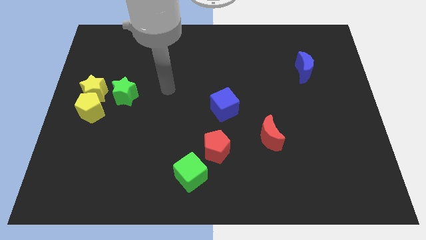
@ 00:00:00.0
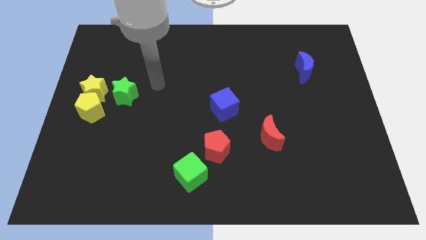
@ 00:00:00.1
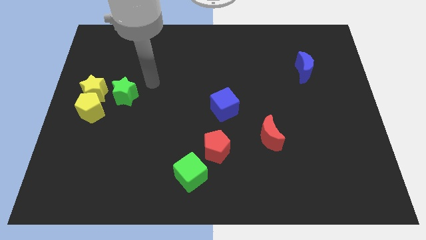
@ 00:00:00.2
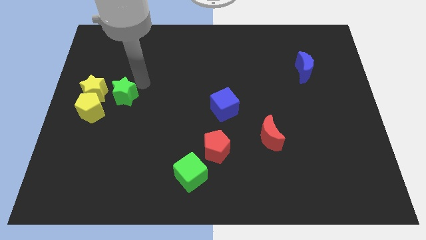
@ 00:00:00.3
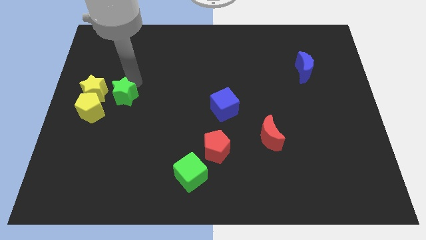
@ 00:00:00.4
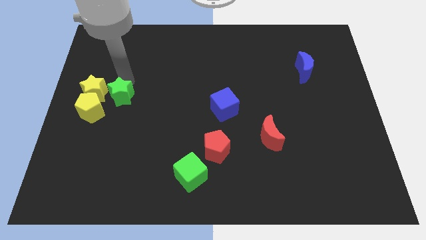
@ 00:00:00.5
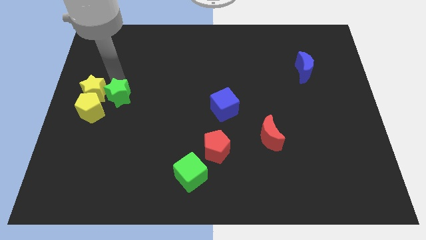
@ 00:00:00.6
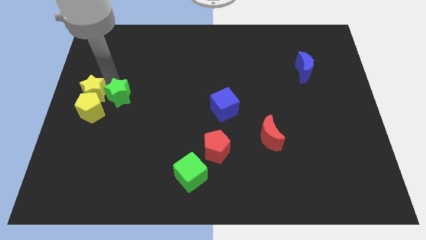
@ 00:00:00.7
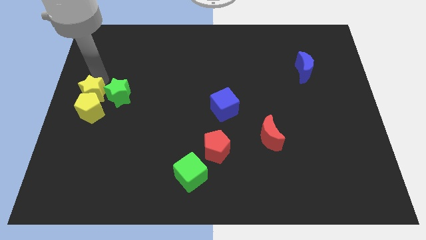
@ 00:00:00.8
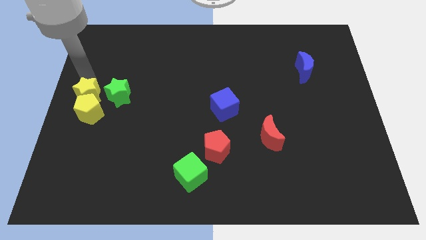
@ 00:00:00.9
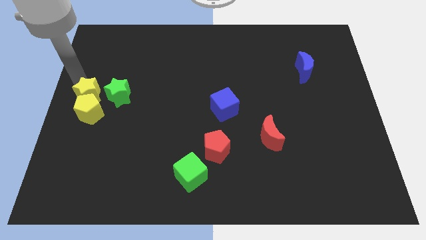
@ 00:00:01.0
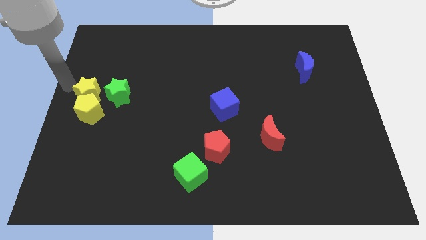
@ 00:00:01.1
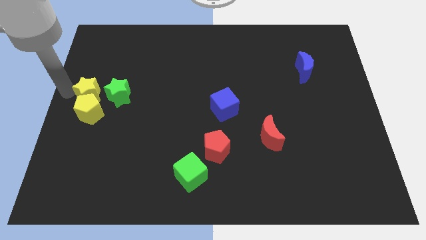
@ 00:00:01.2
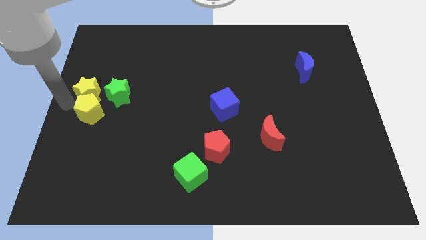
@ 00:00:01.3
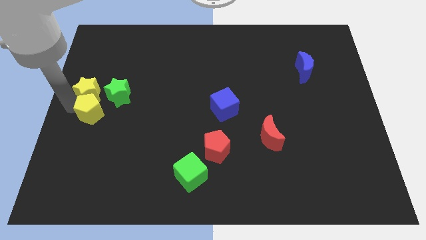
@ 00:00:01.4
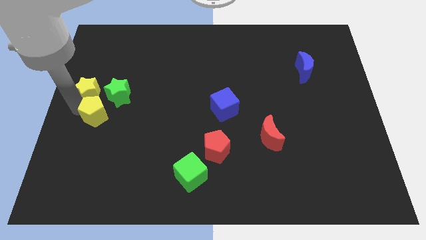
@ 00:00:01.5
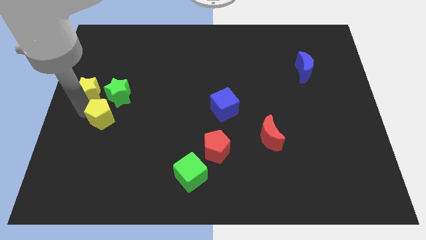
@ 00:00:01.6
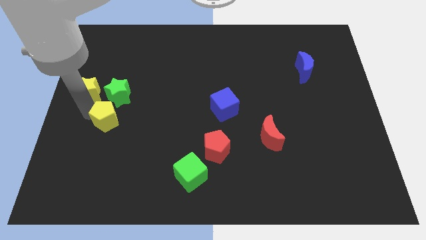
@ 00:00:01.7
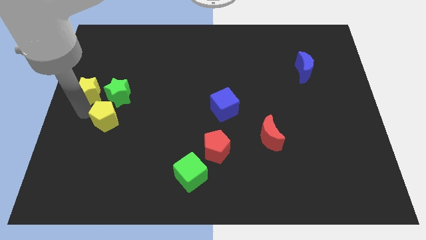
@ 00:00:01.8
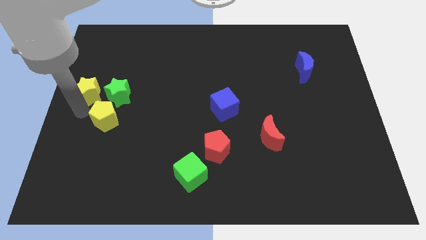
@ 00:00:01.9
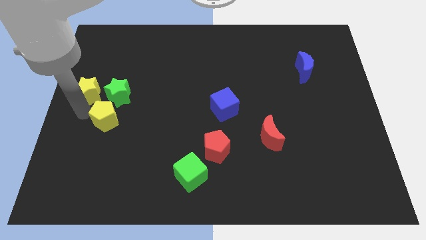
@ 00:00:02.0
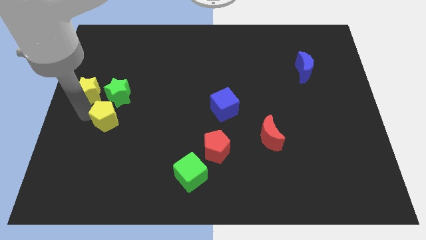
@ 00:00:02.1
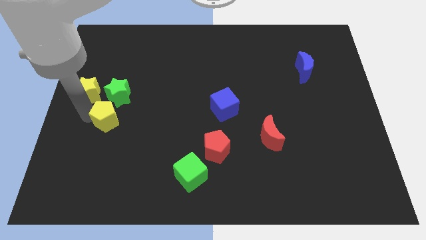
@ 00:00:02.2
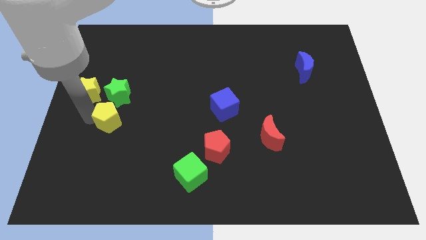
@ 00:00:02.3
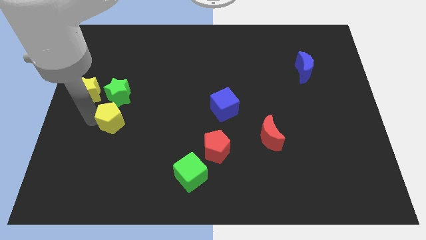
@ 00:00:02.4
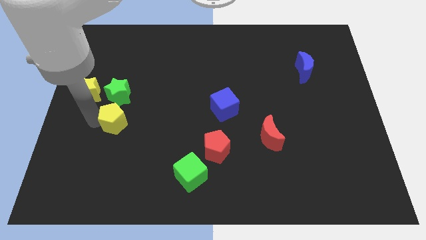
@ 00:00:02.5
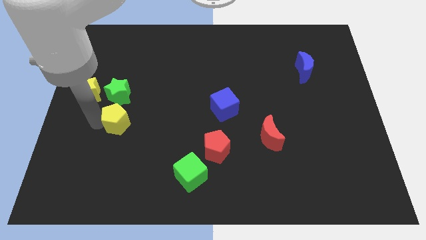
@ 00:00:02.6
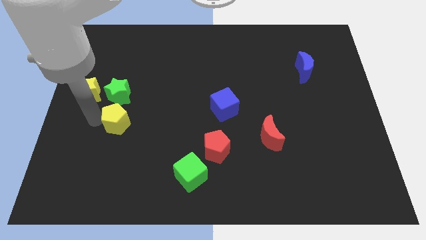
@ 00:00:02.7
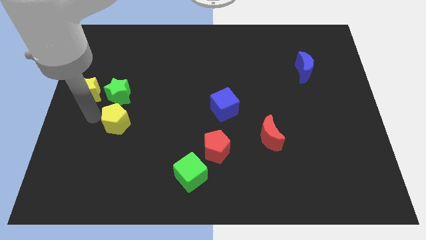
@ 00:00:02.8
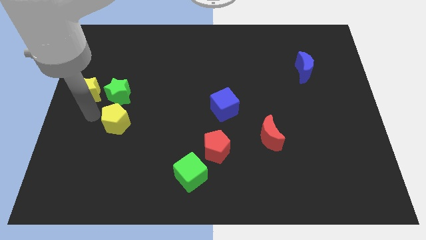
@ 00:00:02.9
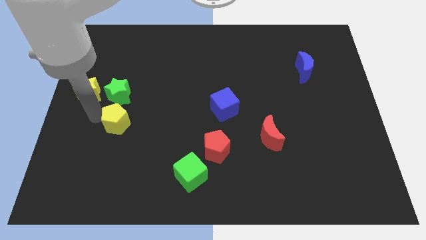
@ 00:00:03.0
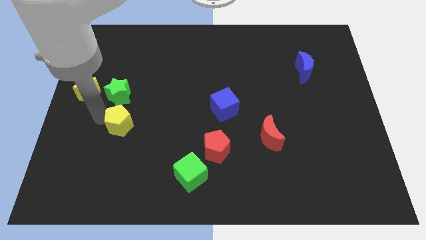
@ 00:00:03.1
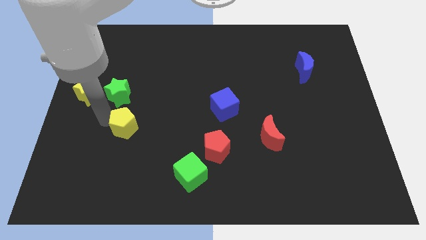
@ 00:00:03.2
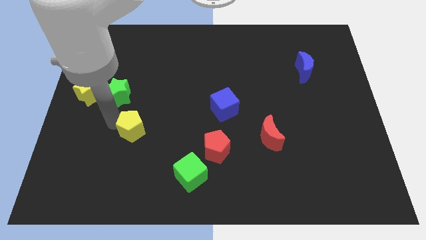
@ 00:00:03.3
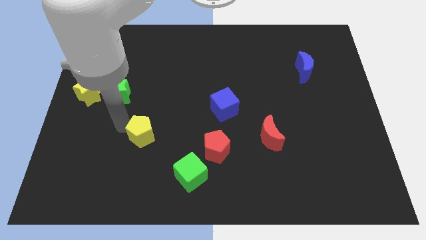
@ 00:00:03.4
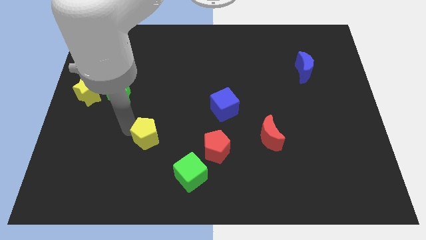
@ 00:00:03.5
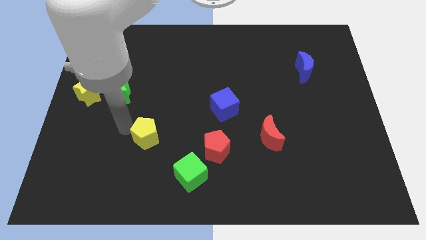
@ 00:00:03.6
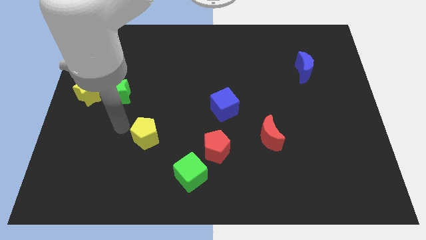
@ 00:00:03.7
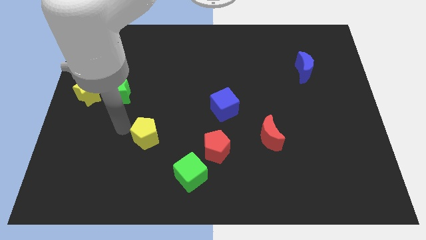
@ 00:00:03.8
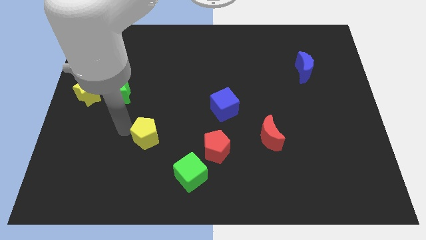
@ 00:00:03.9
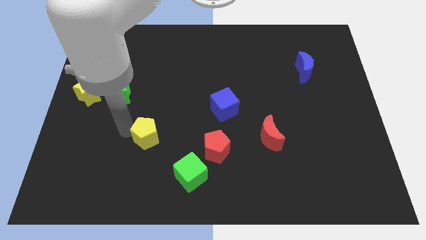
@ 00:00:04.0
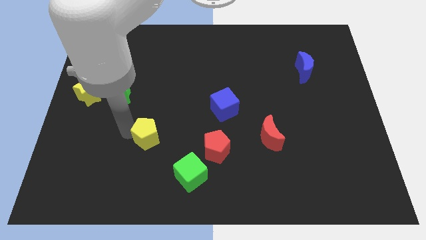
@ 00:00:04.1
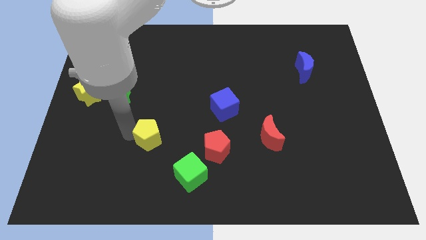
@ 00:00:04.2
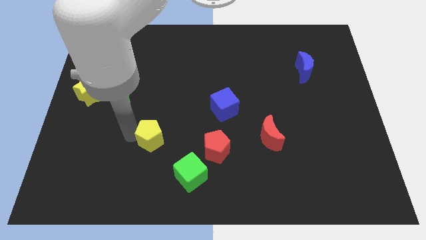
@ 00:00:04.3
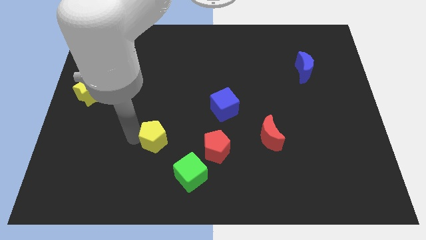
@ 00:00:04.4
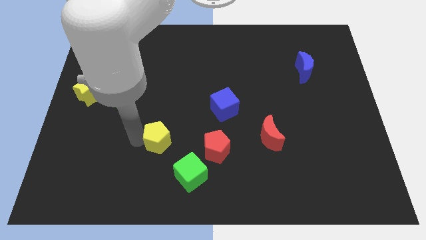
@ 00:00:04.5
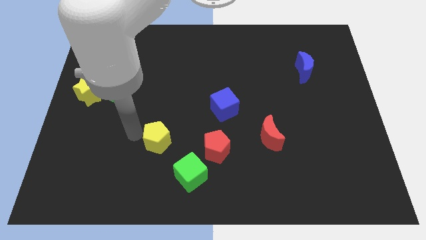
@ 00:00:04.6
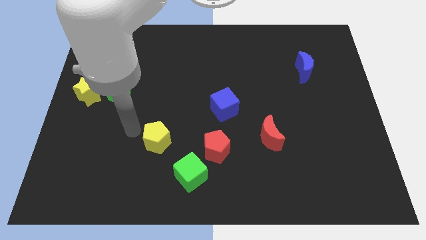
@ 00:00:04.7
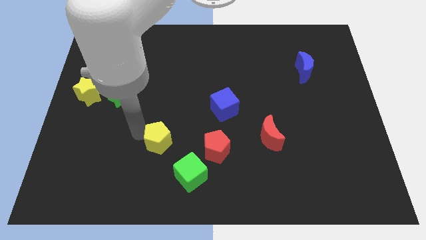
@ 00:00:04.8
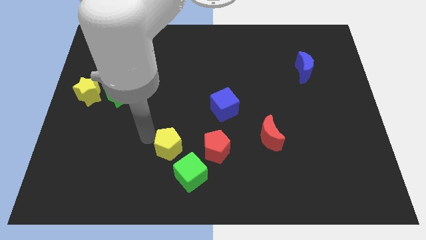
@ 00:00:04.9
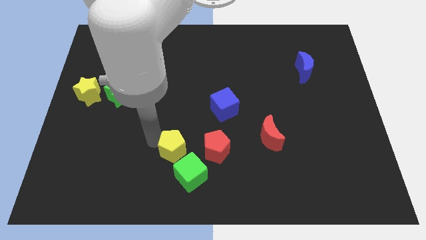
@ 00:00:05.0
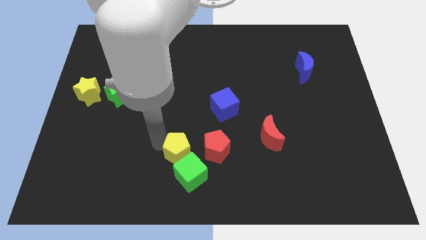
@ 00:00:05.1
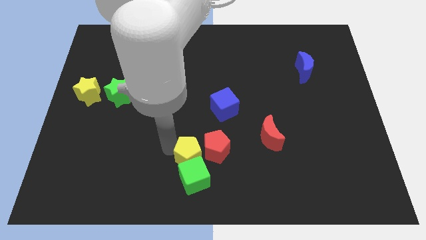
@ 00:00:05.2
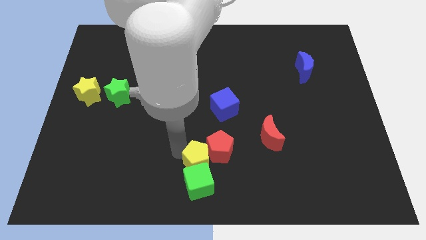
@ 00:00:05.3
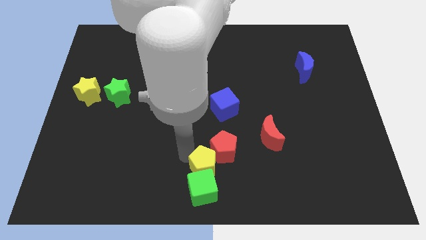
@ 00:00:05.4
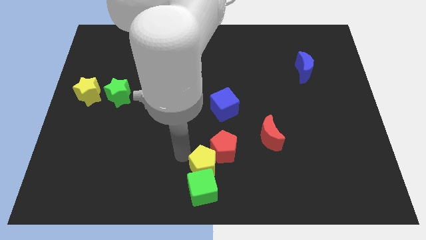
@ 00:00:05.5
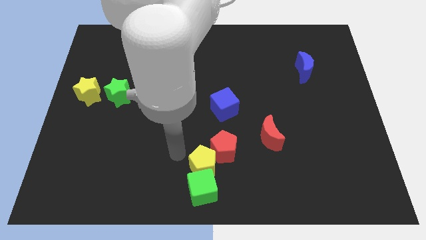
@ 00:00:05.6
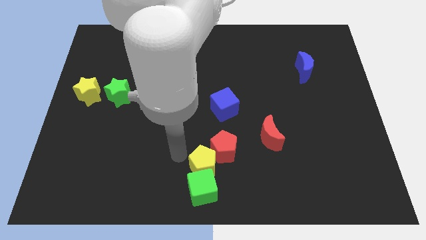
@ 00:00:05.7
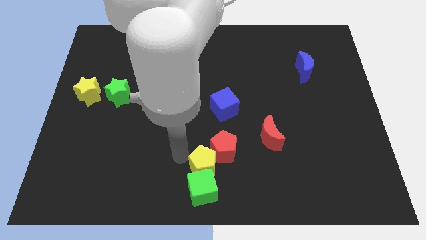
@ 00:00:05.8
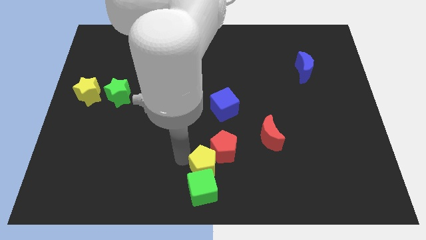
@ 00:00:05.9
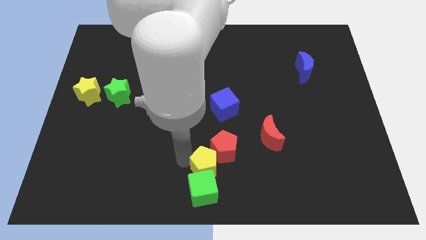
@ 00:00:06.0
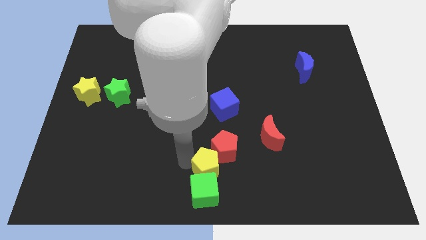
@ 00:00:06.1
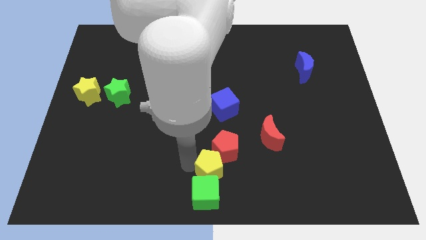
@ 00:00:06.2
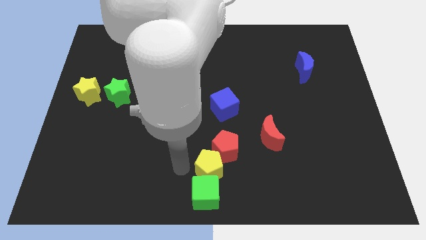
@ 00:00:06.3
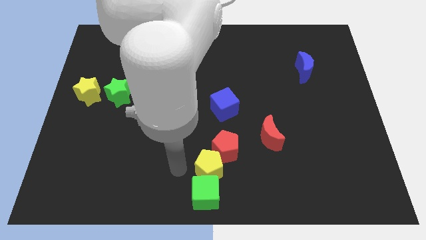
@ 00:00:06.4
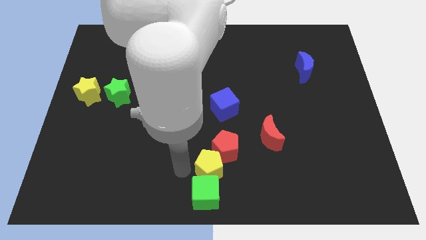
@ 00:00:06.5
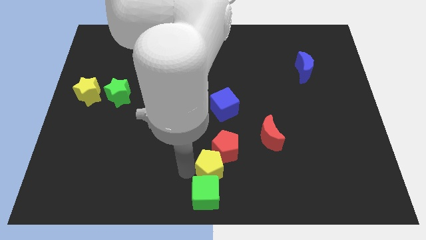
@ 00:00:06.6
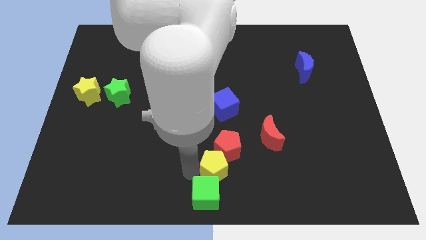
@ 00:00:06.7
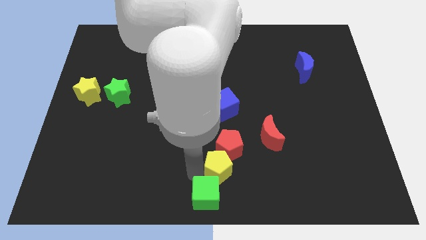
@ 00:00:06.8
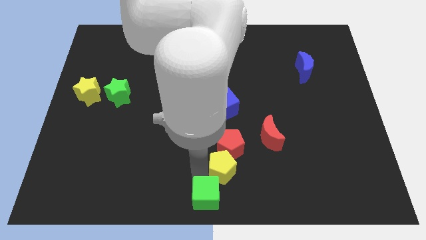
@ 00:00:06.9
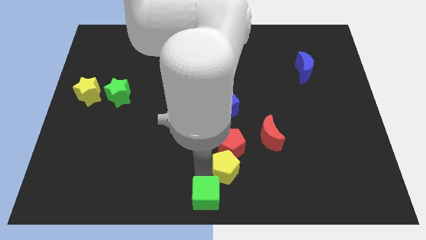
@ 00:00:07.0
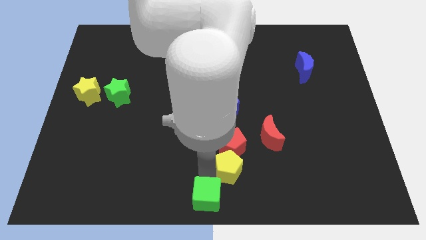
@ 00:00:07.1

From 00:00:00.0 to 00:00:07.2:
push the yellow pentagon to the bottom right side of the red pentagon
